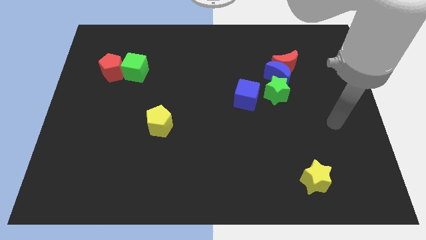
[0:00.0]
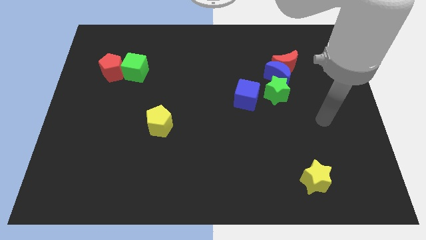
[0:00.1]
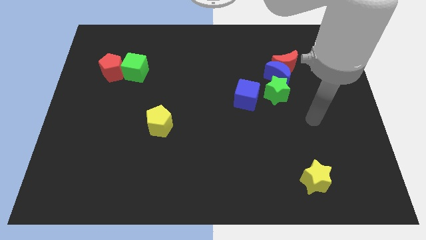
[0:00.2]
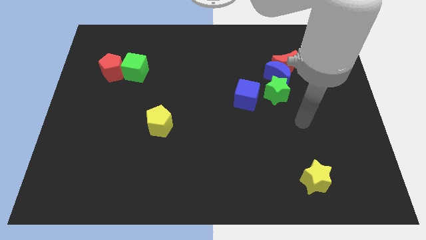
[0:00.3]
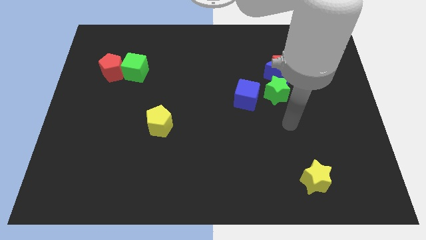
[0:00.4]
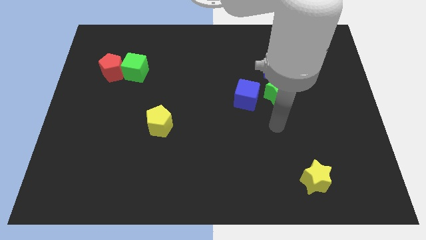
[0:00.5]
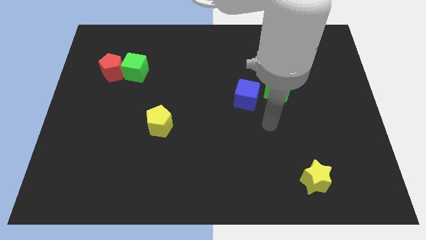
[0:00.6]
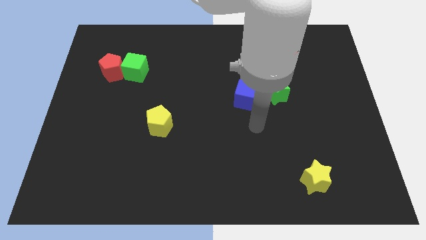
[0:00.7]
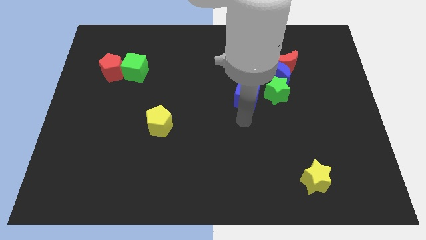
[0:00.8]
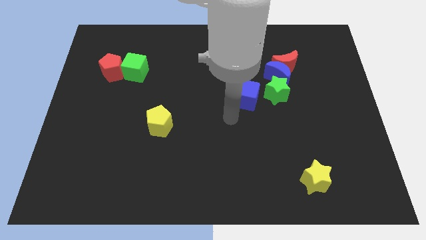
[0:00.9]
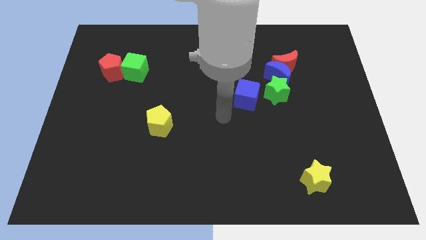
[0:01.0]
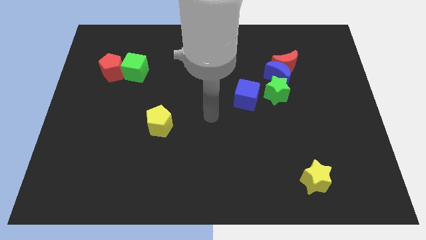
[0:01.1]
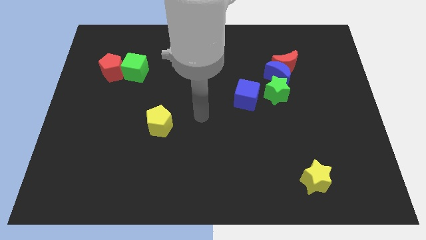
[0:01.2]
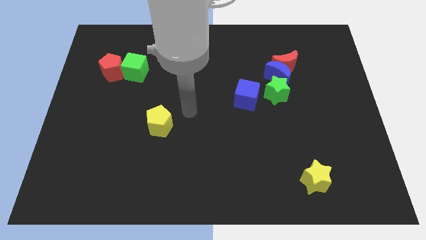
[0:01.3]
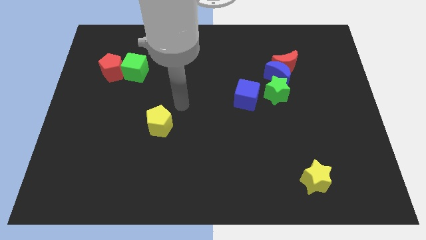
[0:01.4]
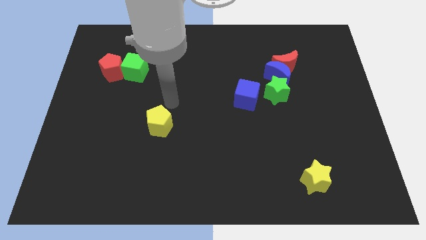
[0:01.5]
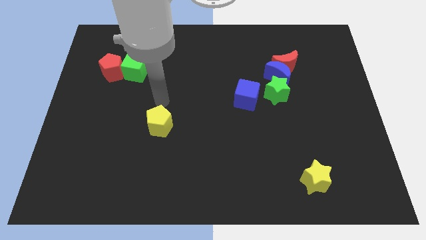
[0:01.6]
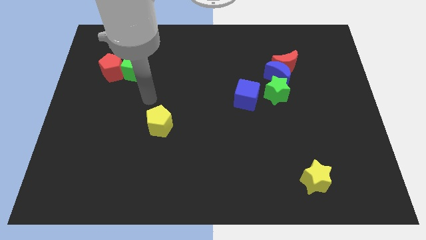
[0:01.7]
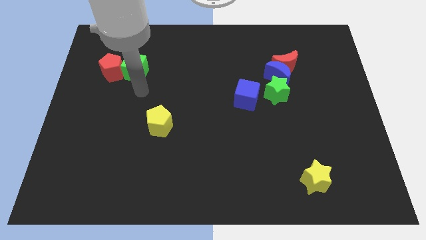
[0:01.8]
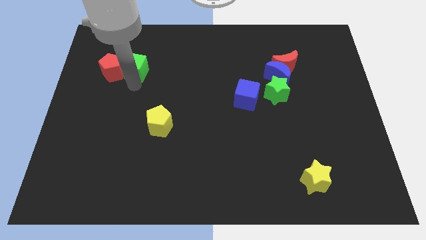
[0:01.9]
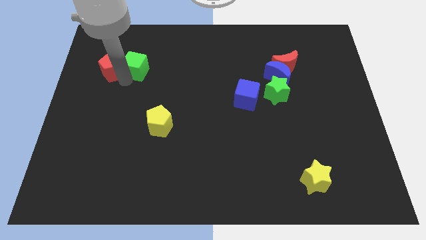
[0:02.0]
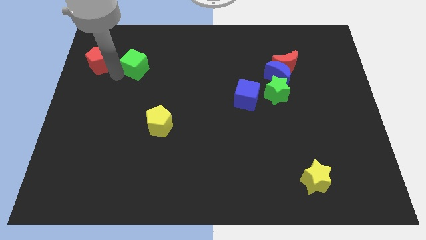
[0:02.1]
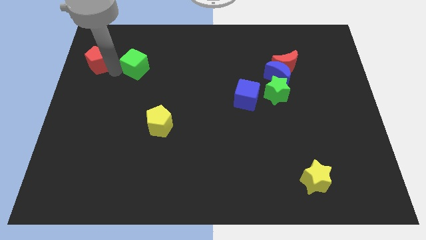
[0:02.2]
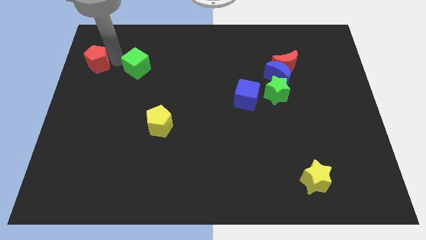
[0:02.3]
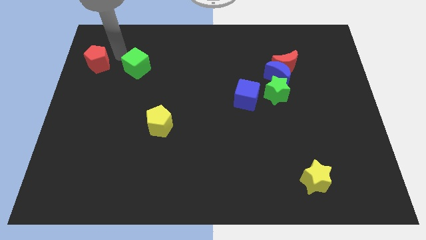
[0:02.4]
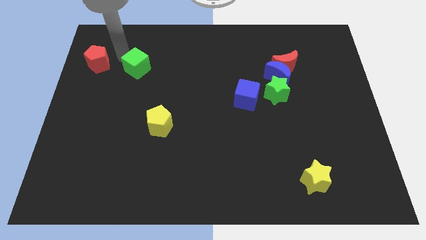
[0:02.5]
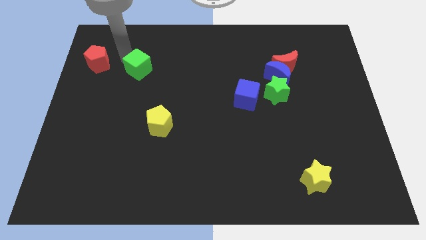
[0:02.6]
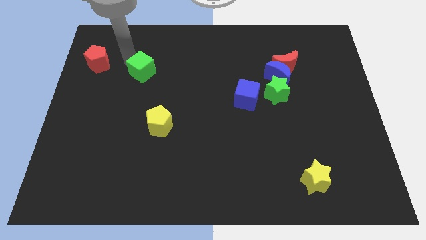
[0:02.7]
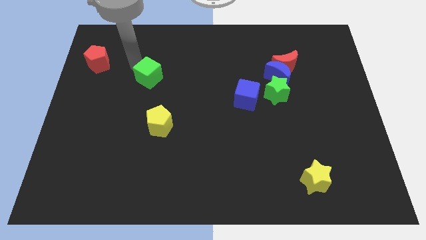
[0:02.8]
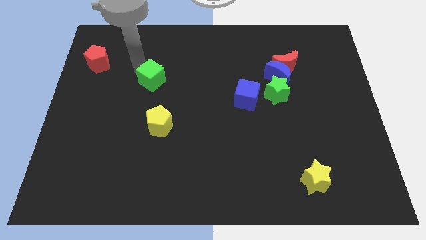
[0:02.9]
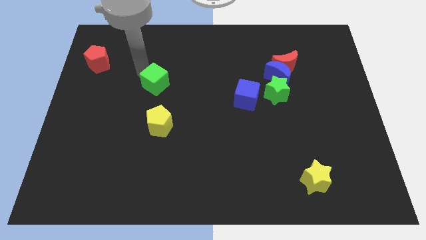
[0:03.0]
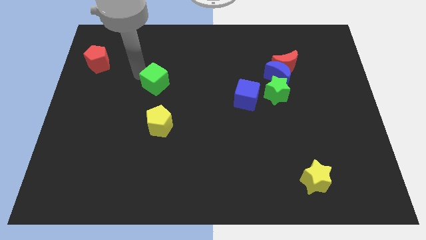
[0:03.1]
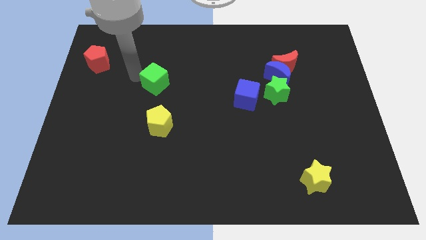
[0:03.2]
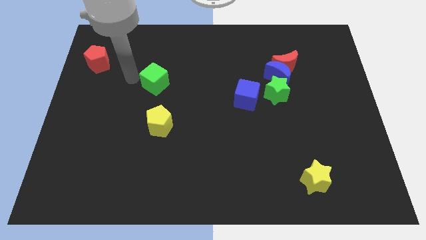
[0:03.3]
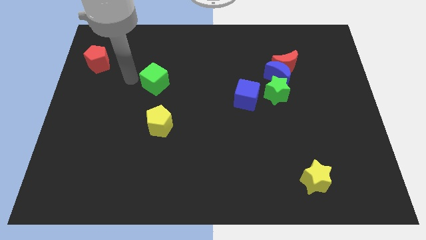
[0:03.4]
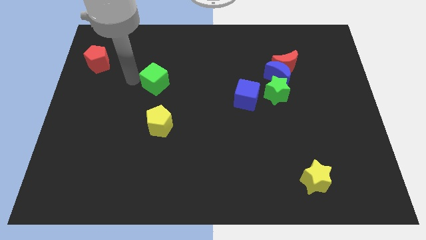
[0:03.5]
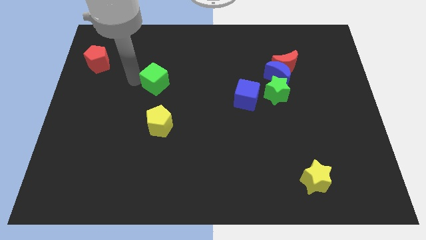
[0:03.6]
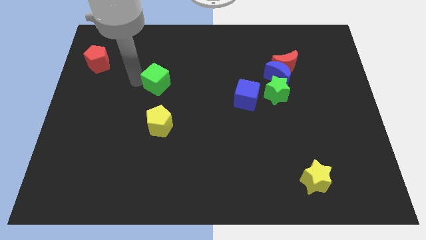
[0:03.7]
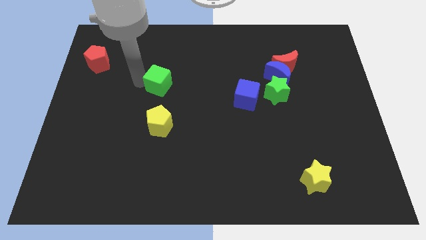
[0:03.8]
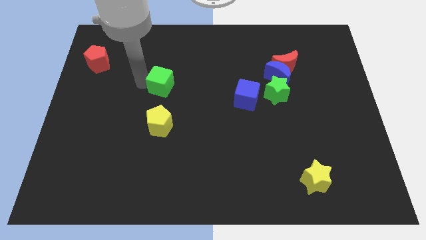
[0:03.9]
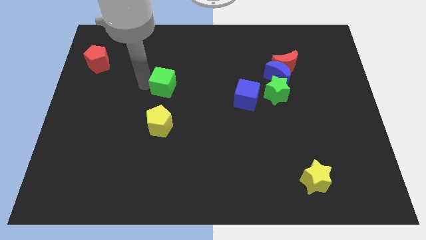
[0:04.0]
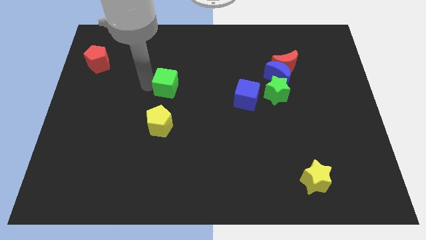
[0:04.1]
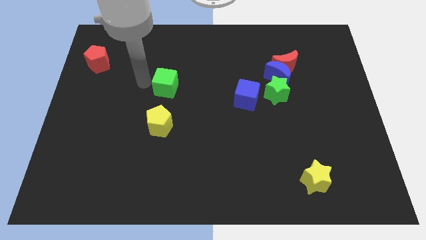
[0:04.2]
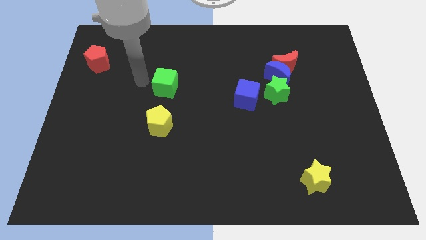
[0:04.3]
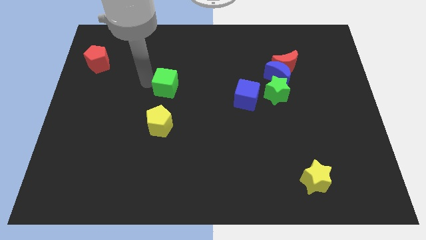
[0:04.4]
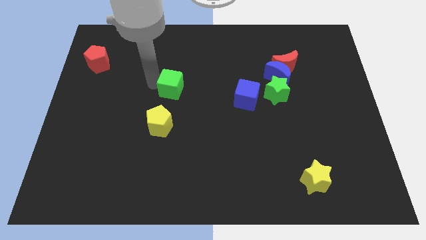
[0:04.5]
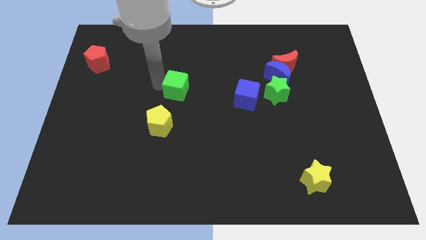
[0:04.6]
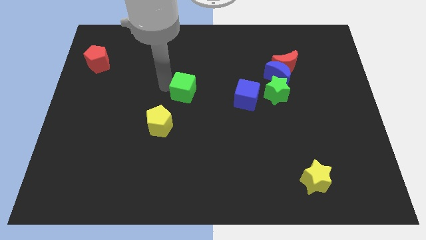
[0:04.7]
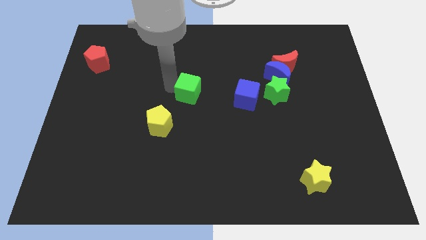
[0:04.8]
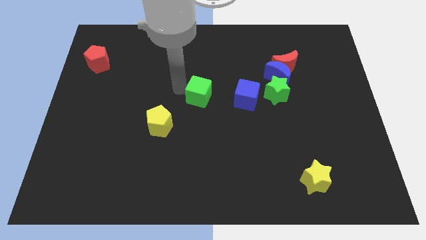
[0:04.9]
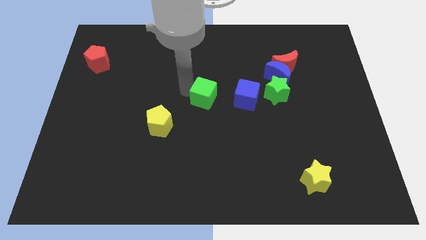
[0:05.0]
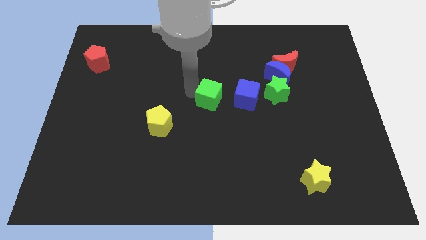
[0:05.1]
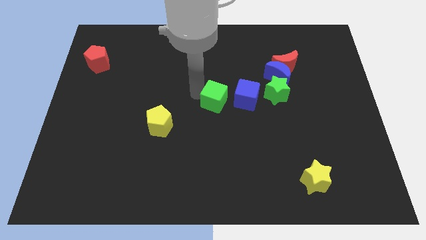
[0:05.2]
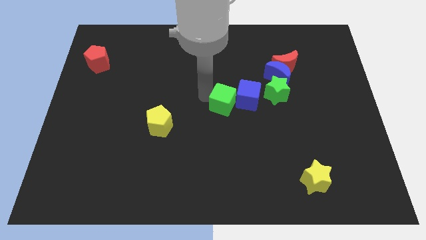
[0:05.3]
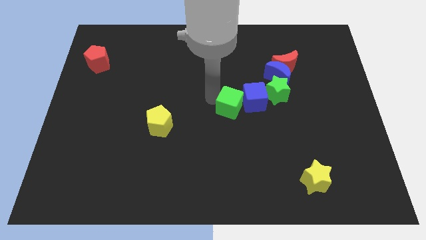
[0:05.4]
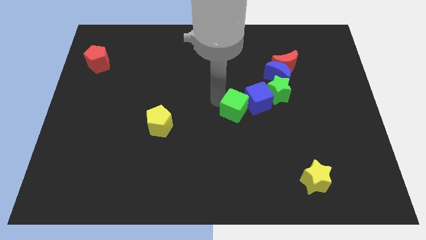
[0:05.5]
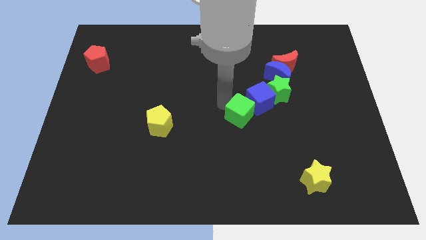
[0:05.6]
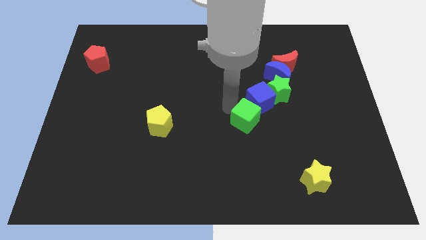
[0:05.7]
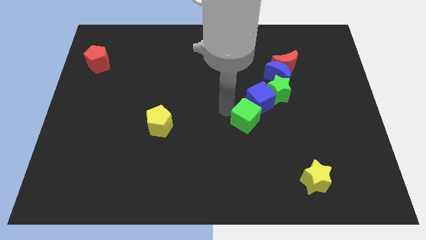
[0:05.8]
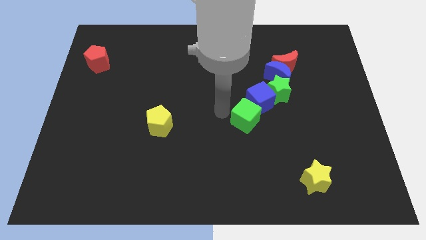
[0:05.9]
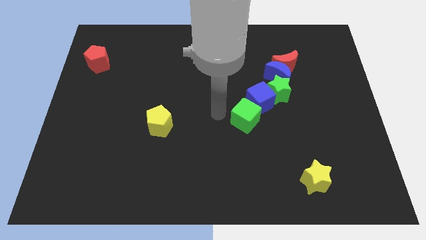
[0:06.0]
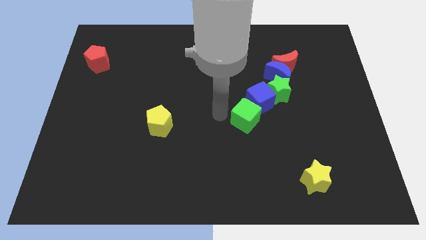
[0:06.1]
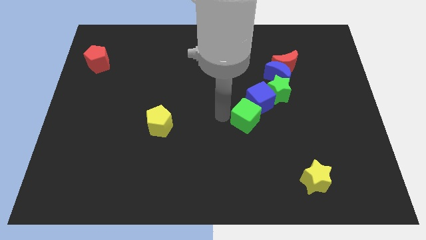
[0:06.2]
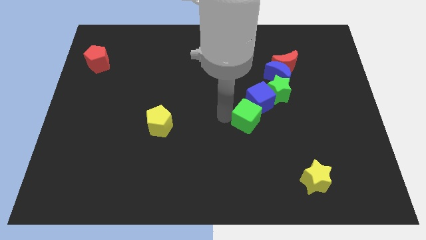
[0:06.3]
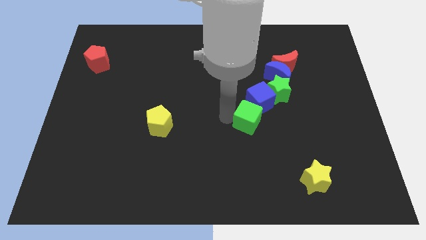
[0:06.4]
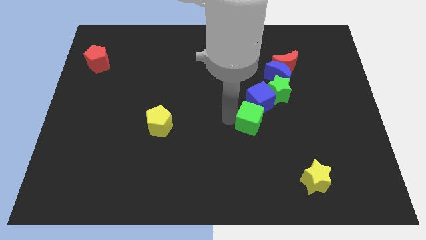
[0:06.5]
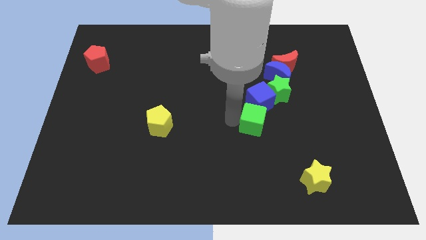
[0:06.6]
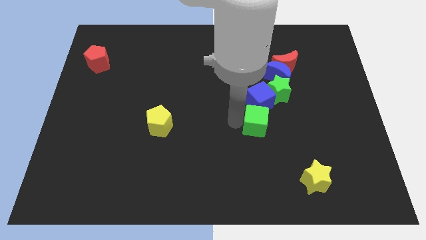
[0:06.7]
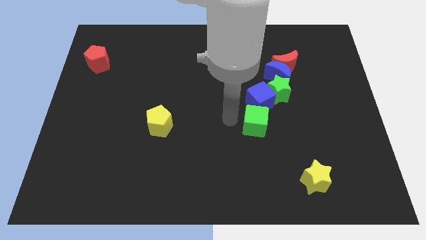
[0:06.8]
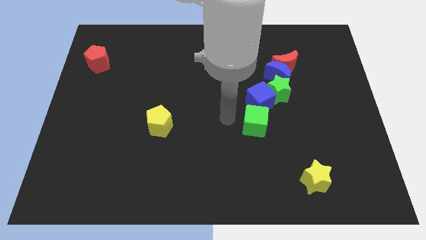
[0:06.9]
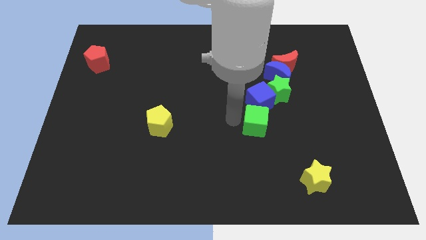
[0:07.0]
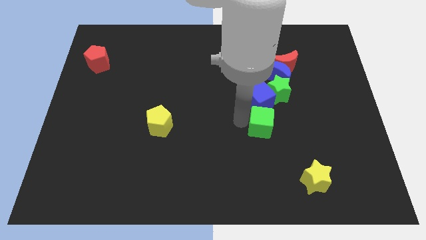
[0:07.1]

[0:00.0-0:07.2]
slide the green cube to the bottom of the green star
